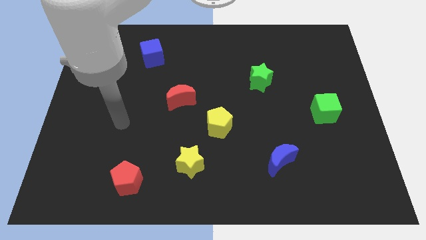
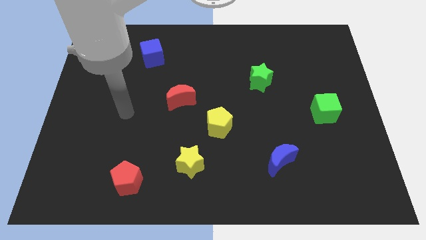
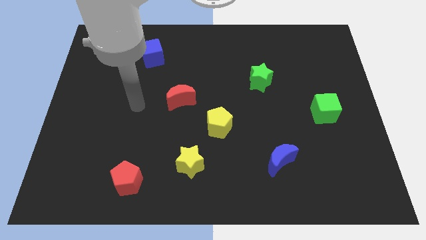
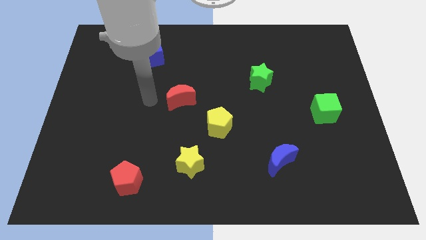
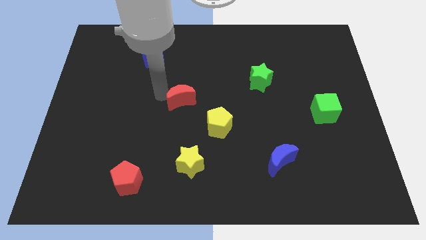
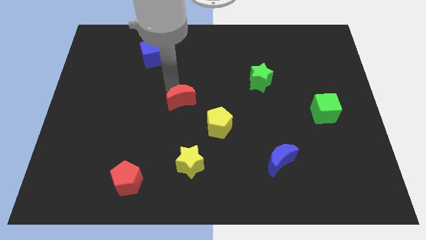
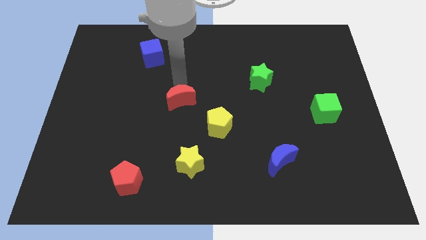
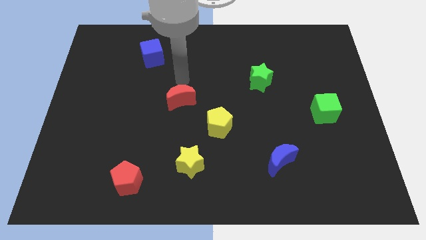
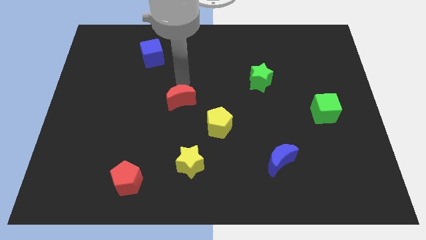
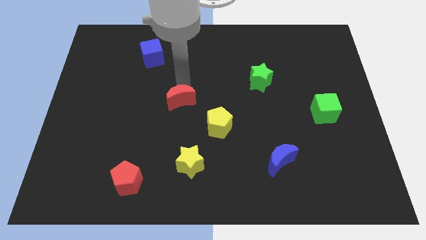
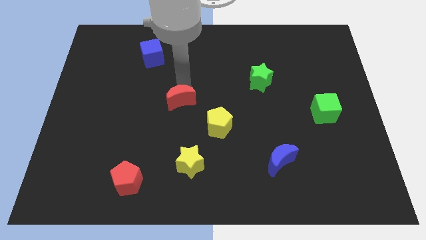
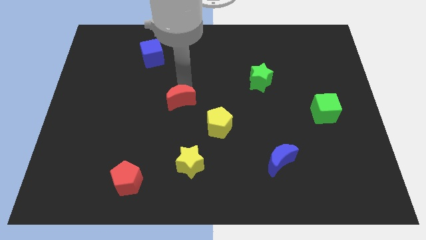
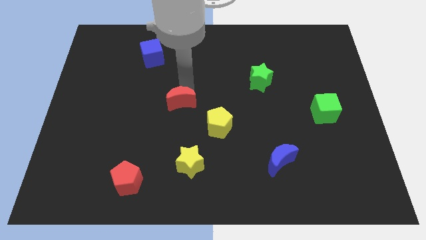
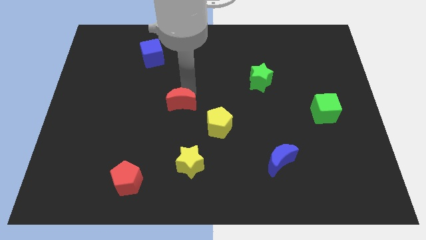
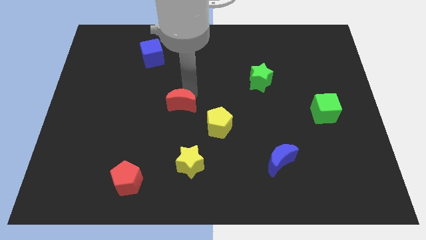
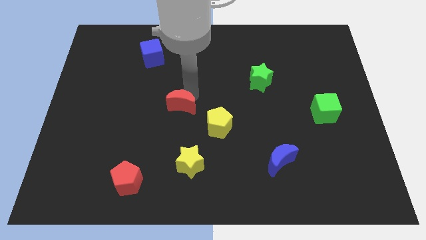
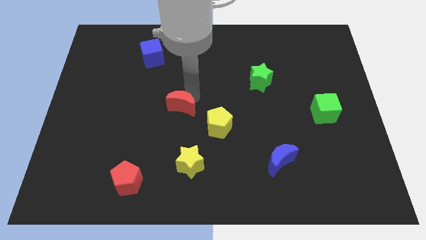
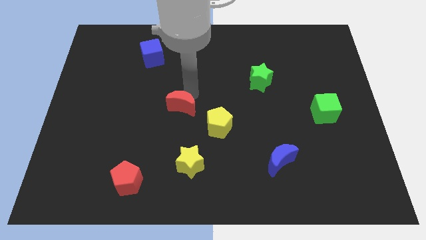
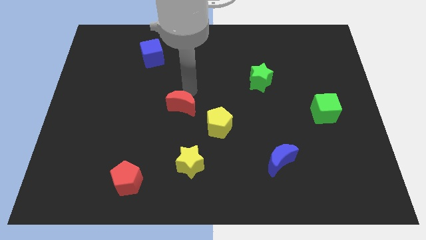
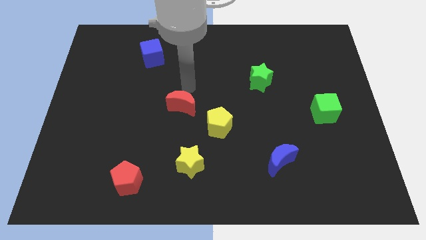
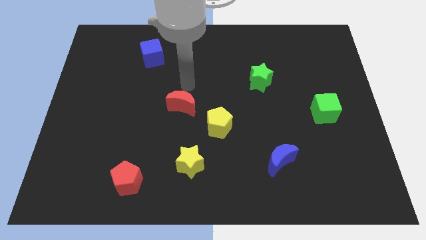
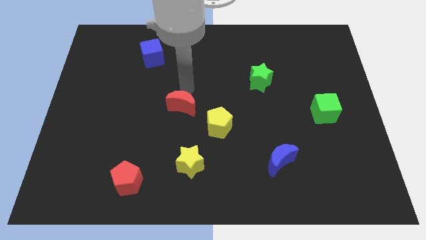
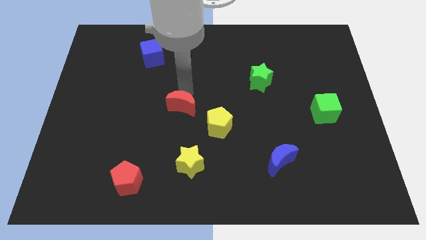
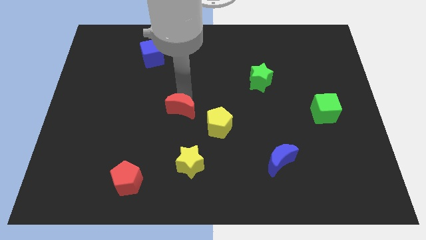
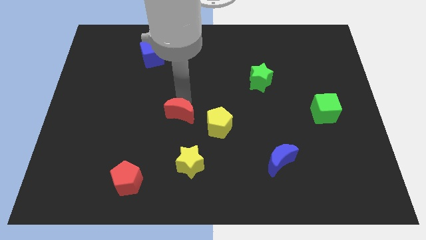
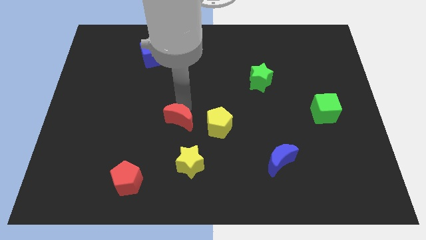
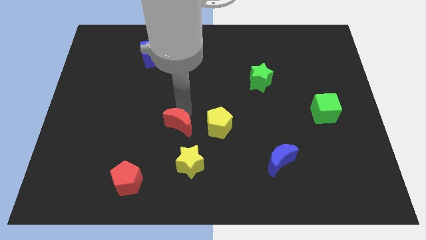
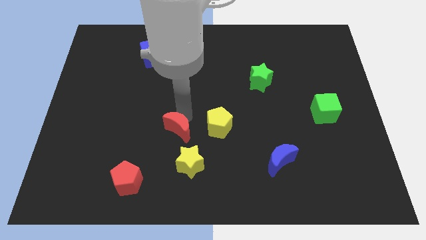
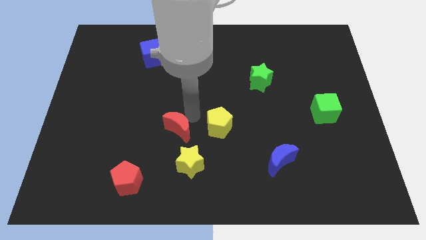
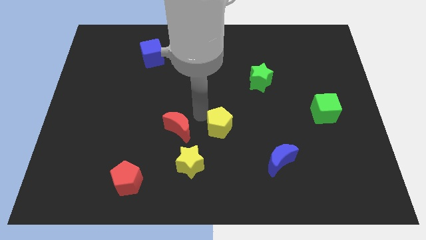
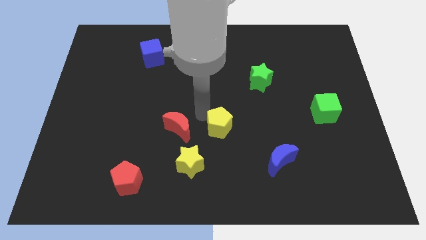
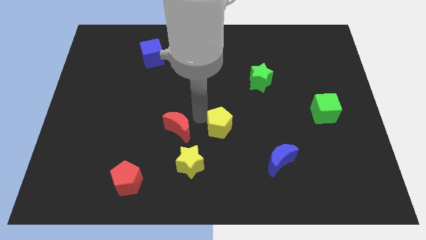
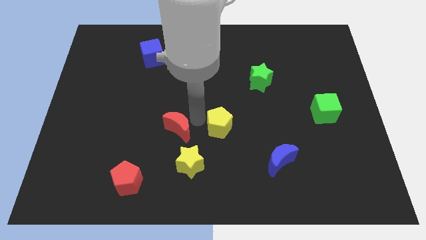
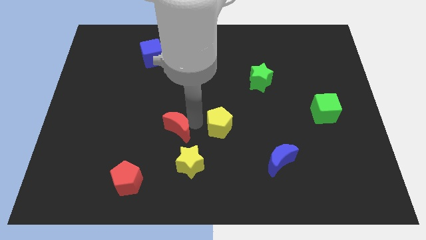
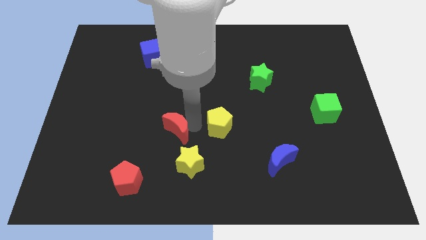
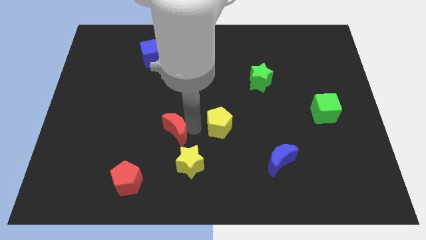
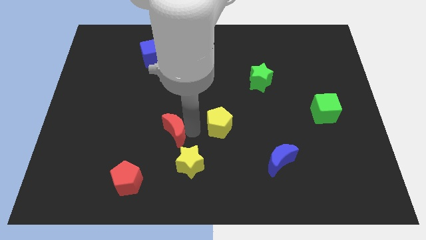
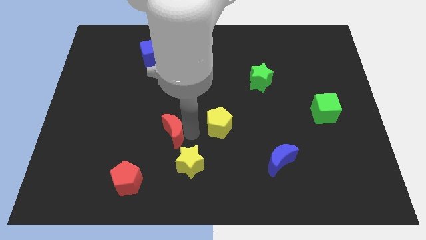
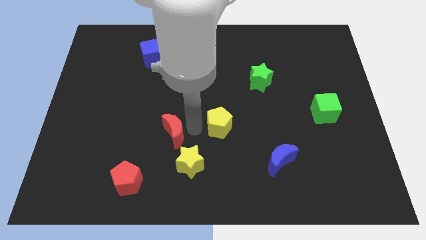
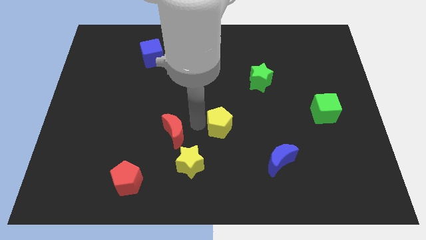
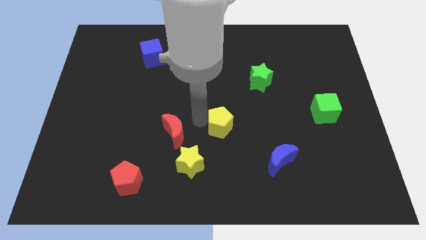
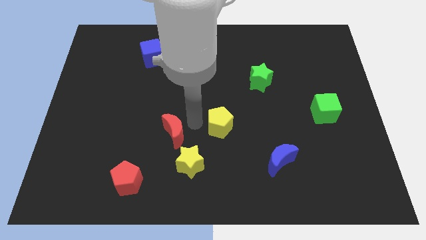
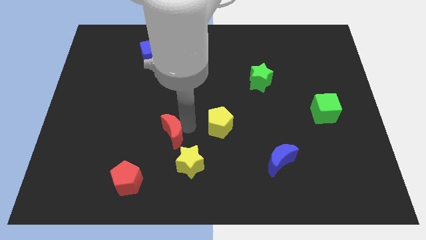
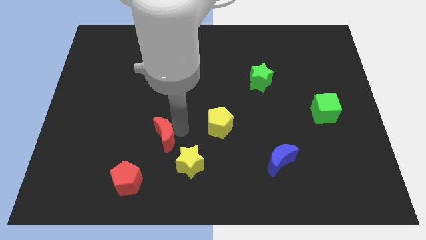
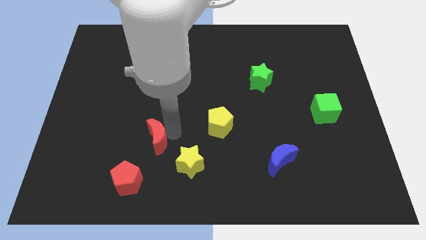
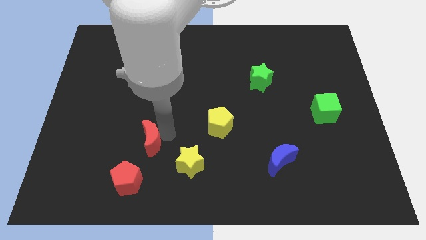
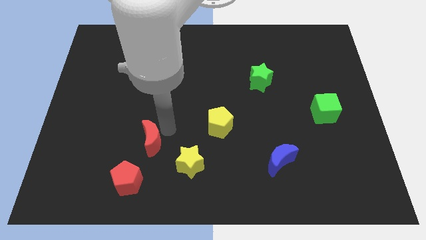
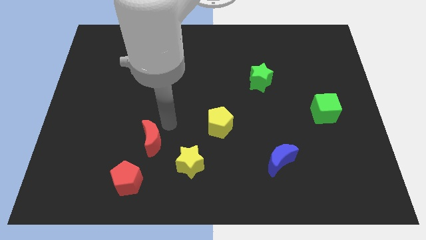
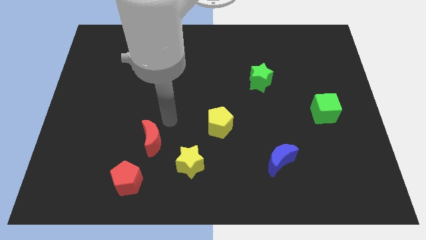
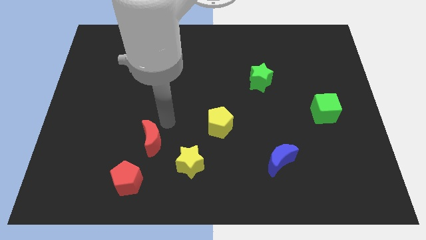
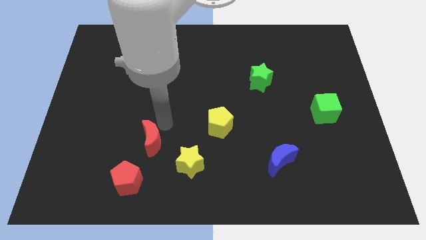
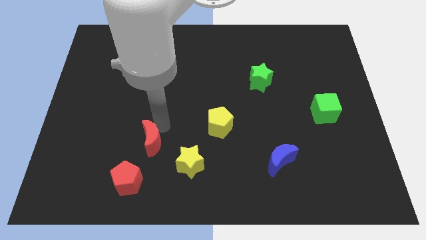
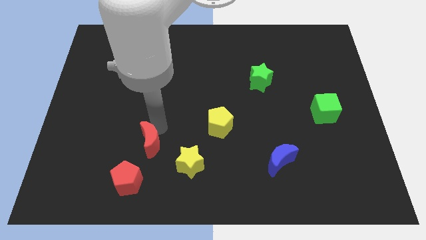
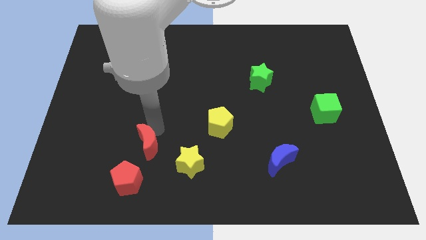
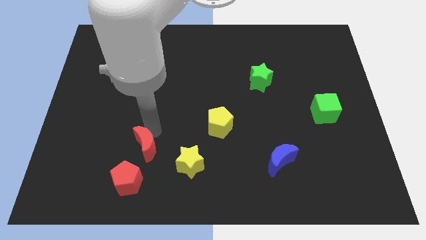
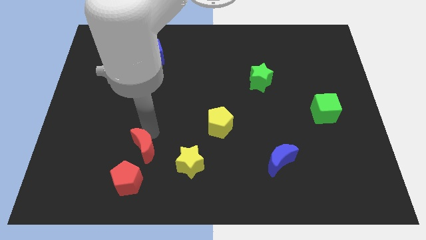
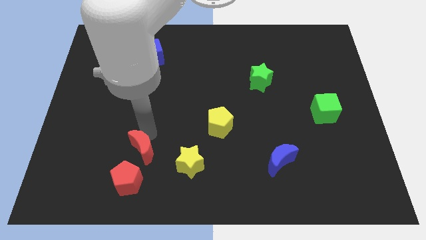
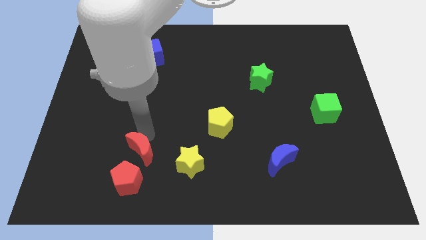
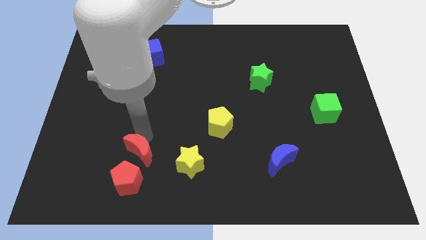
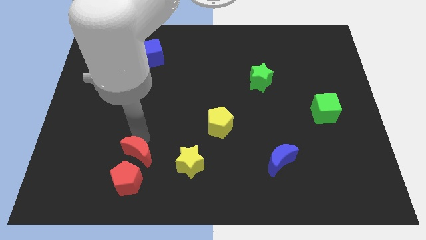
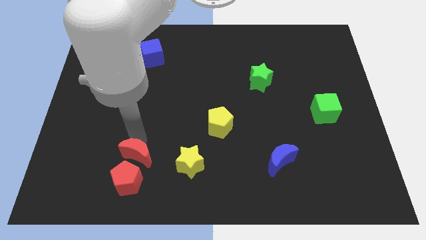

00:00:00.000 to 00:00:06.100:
put the red moon towards the red pentagon
